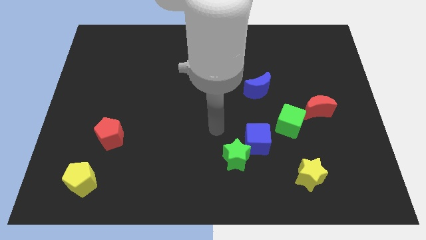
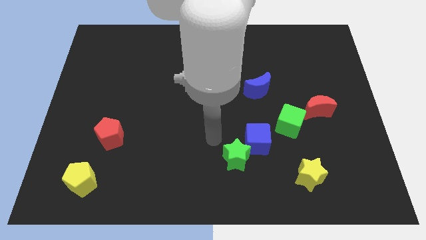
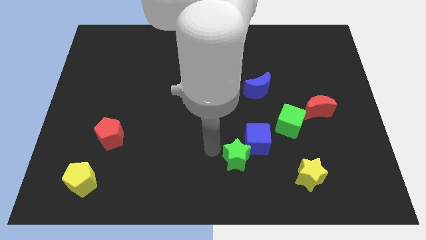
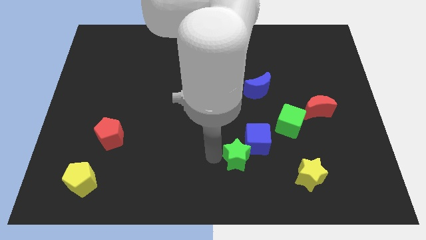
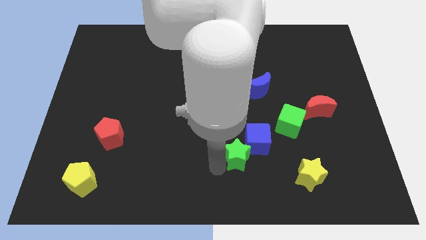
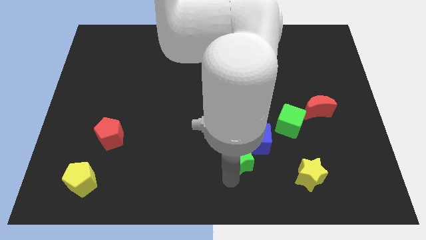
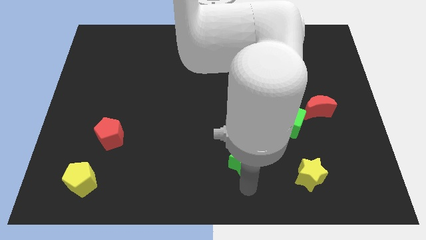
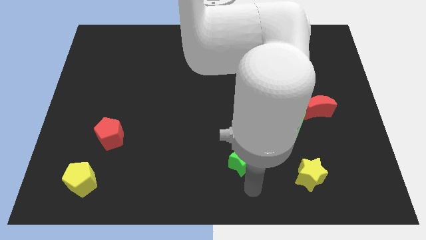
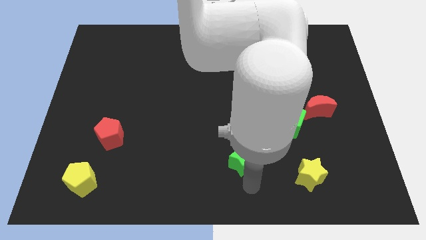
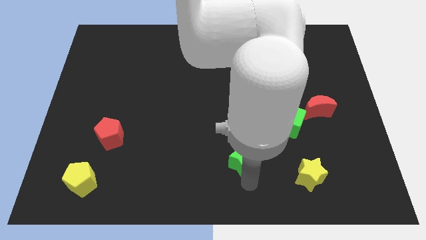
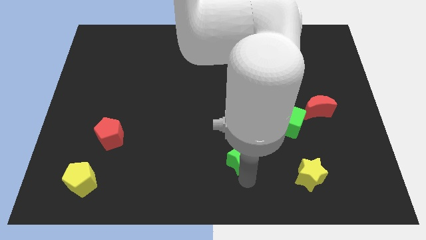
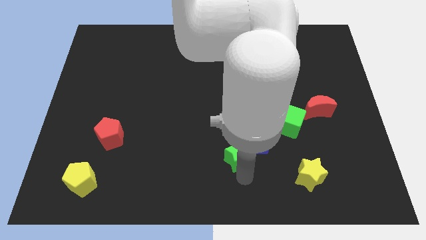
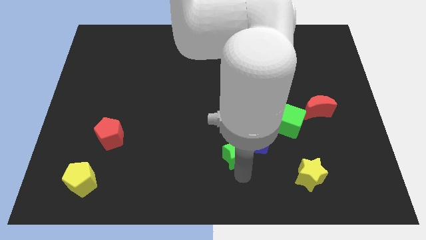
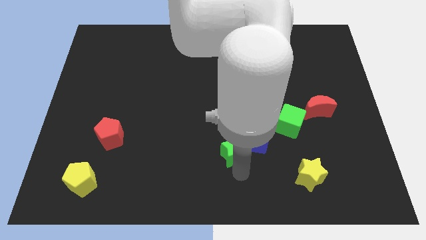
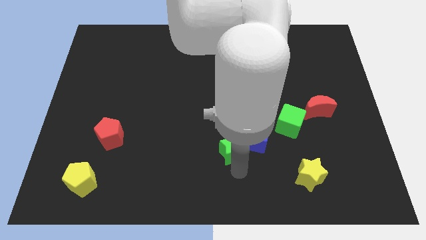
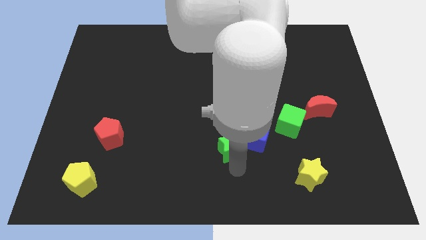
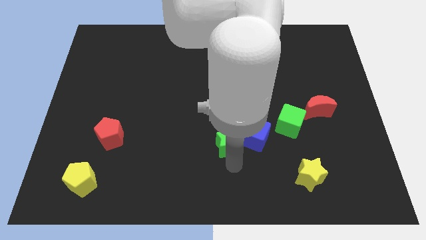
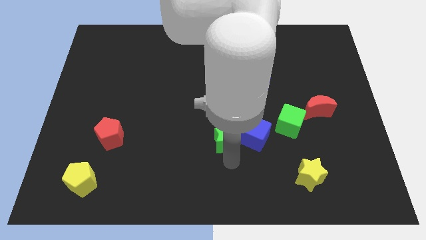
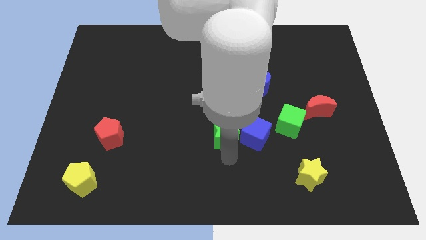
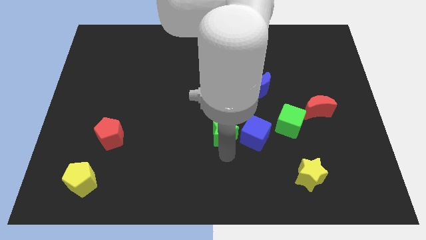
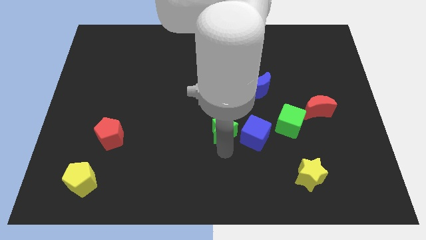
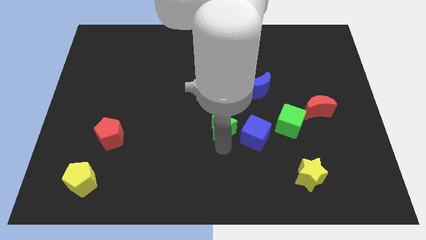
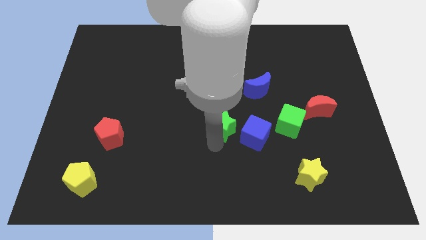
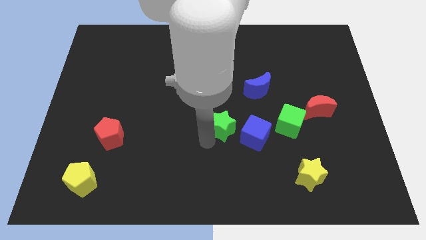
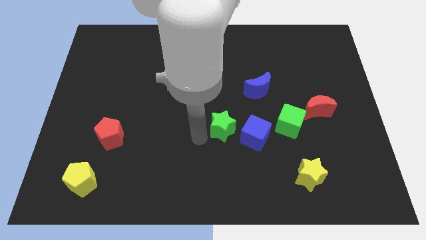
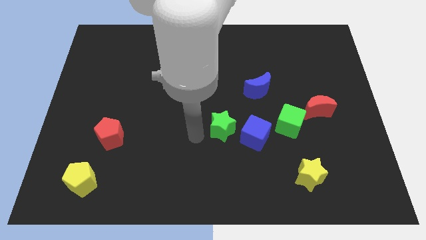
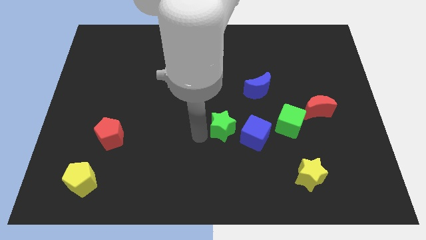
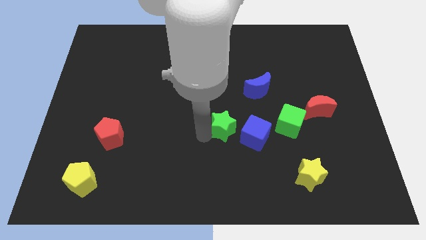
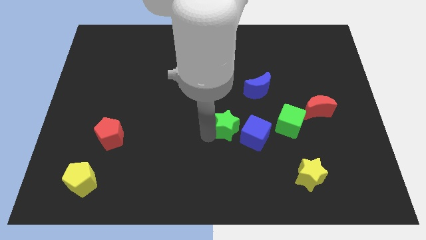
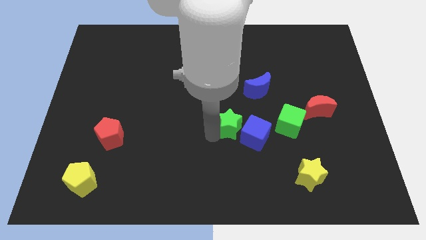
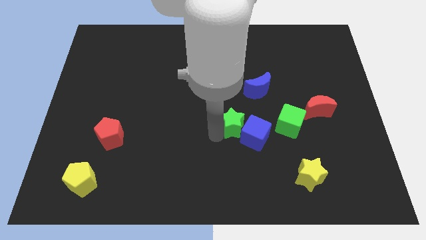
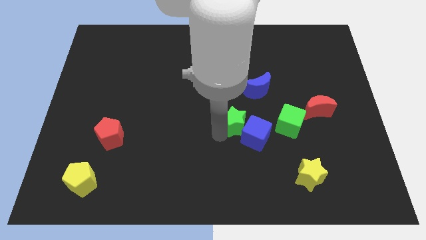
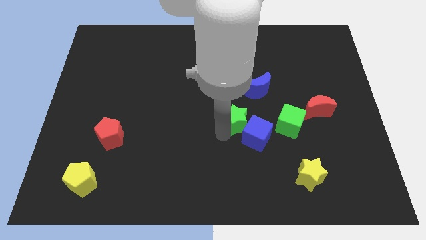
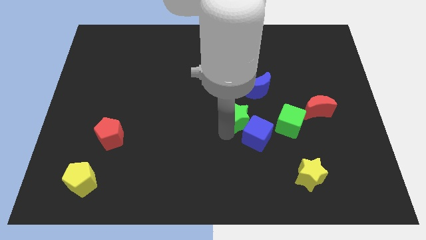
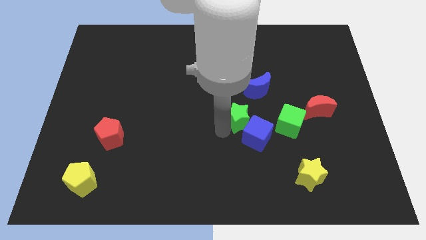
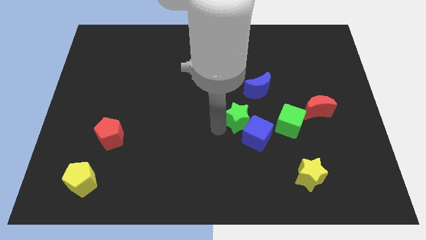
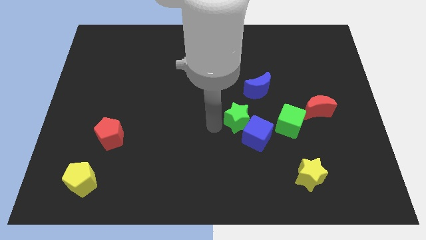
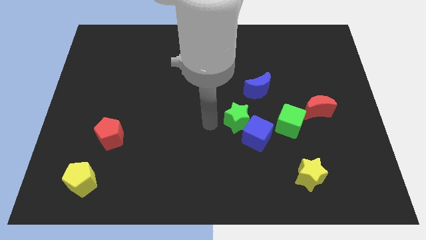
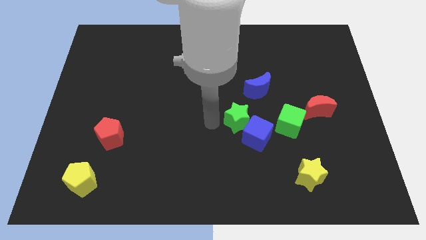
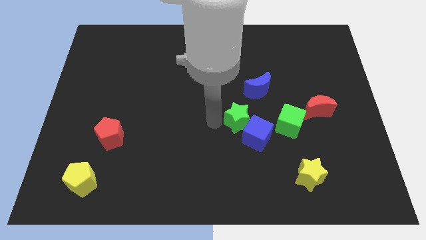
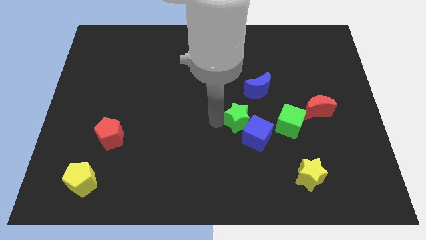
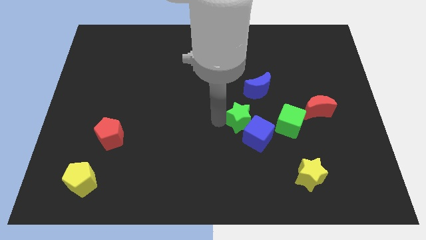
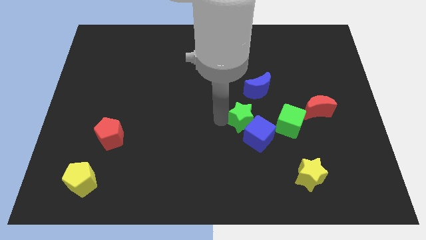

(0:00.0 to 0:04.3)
slide the green star diagonally up and right a little

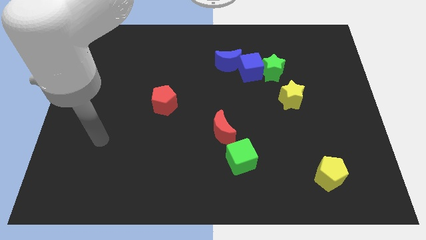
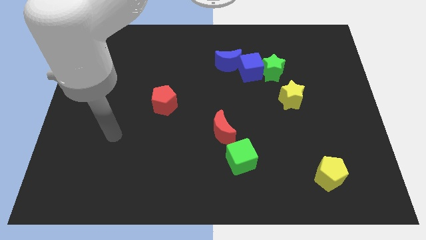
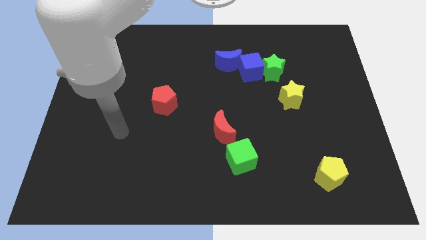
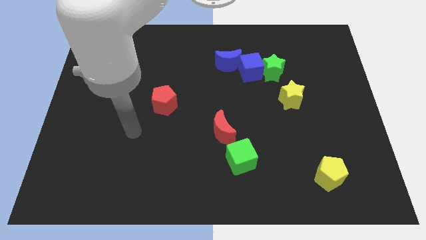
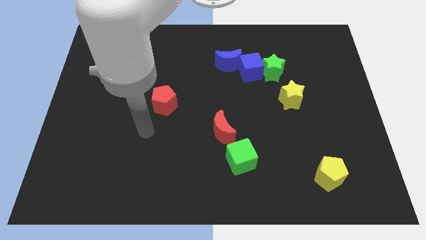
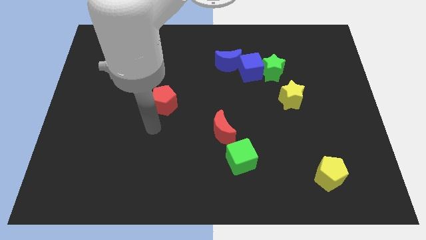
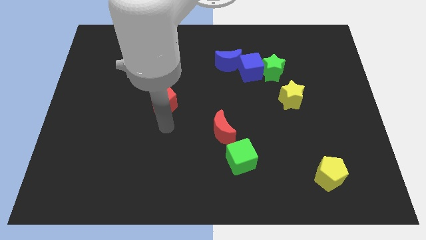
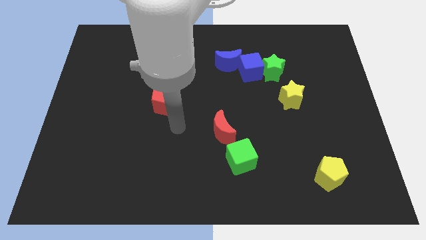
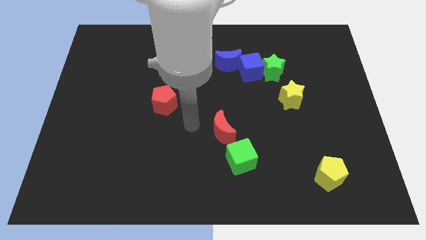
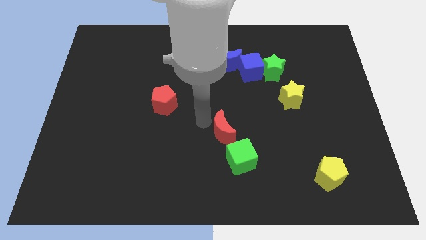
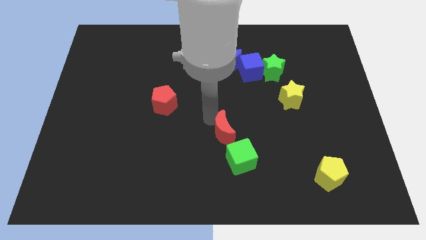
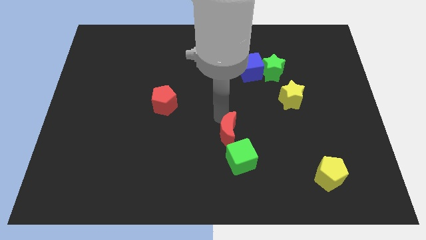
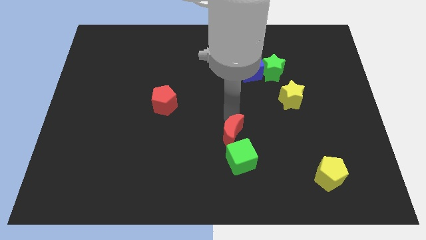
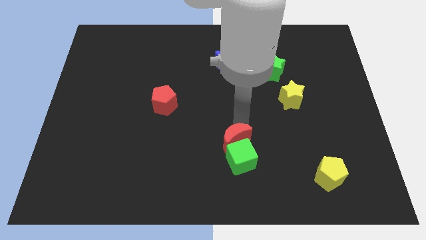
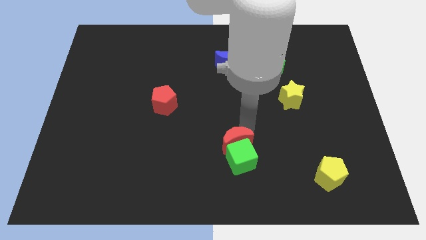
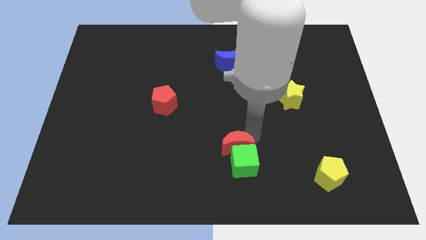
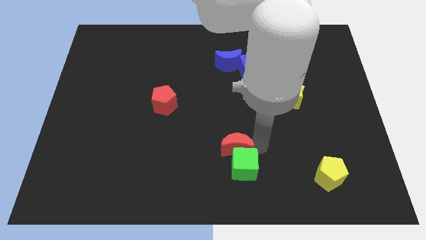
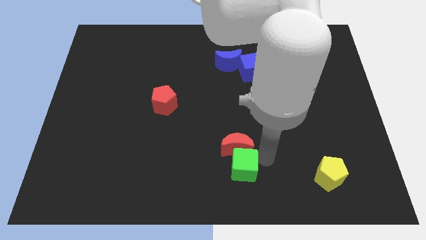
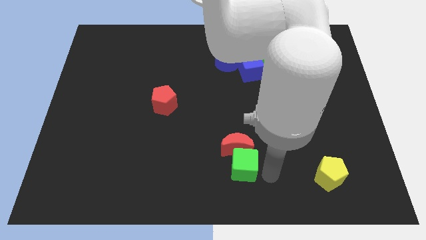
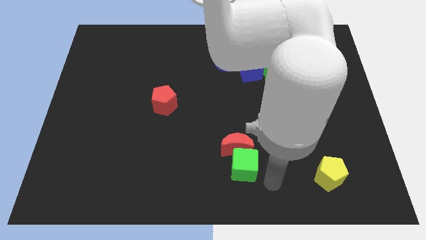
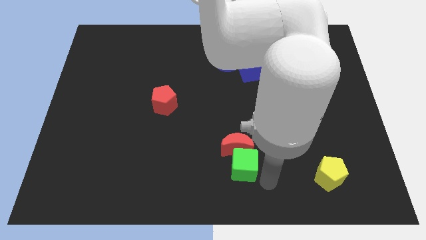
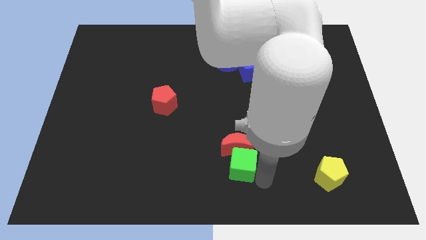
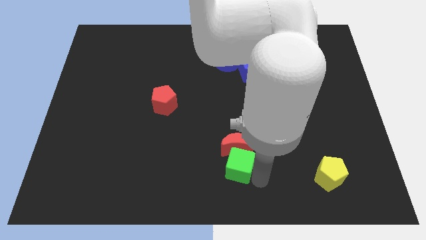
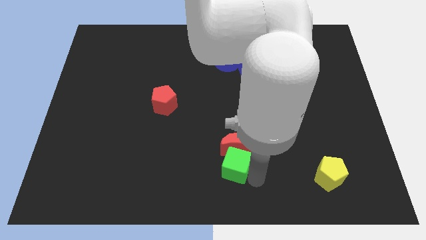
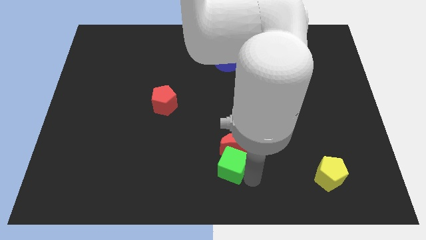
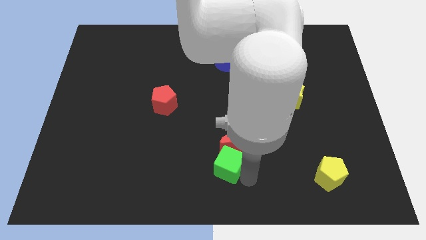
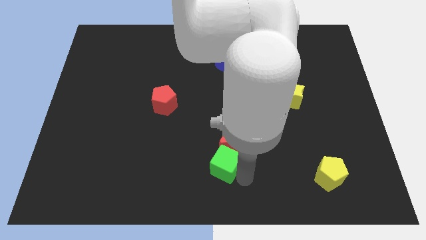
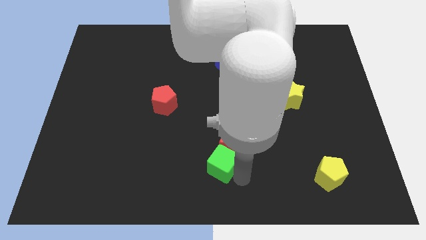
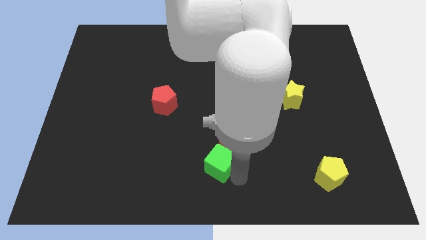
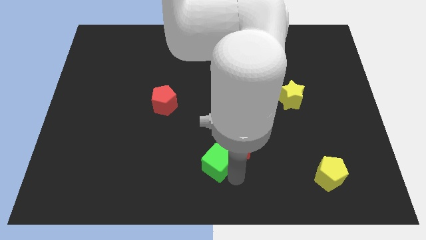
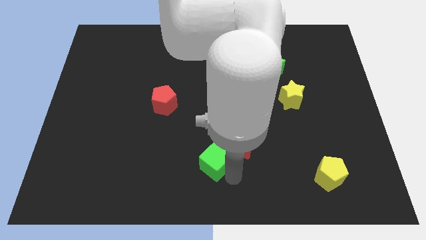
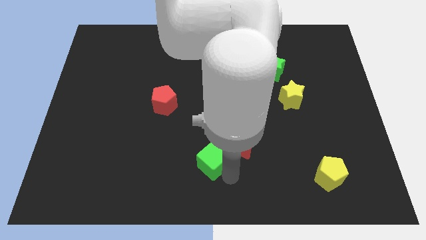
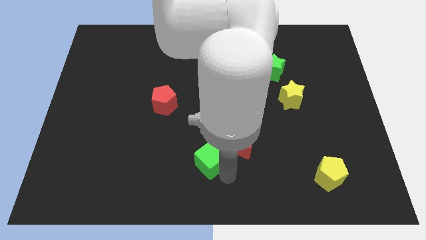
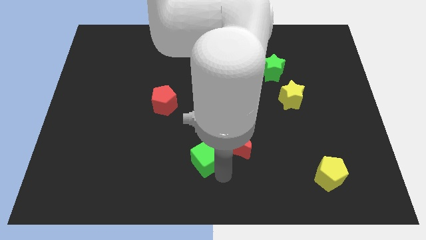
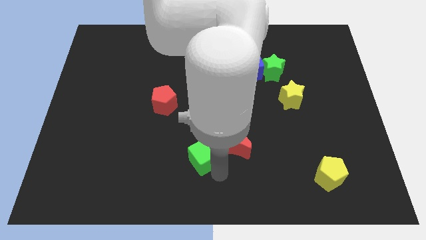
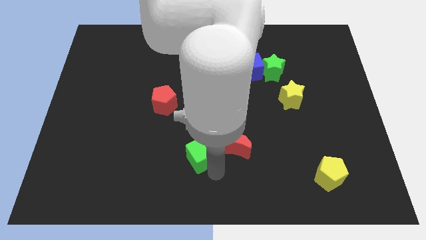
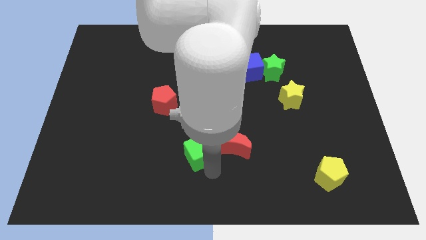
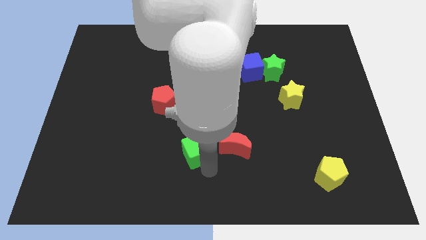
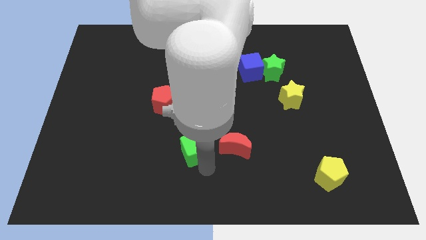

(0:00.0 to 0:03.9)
move the green cube slightly diagonally up and left

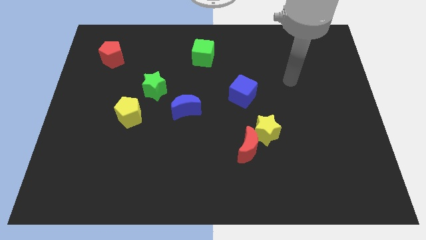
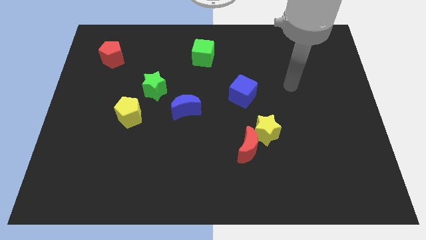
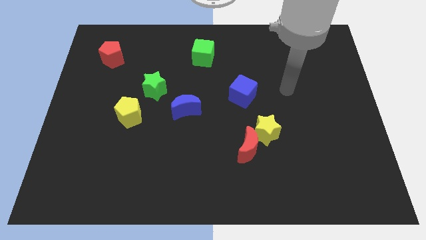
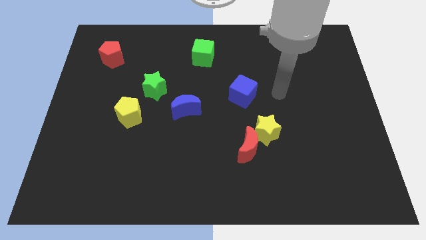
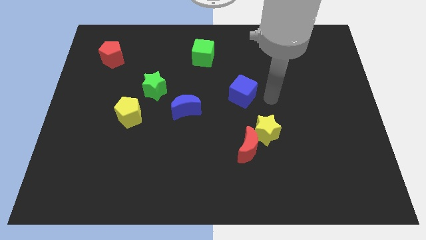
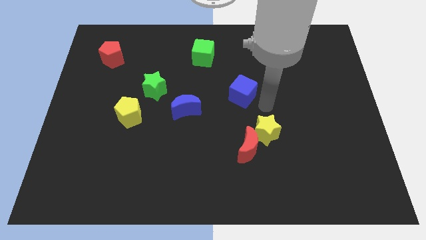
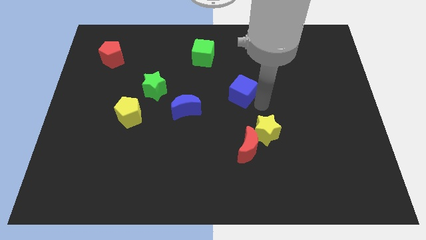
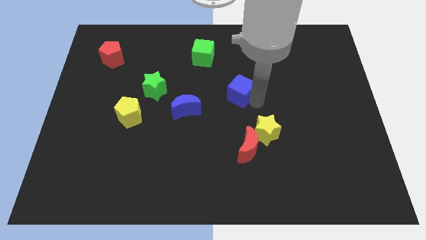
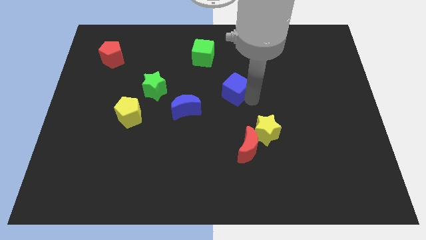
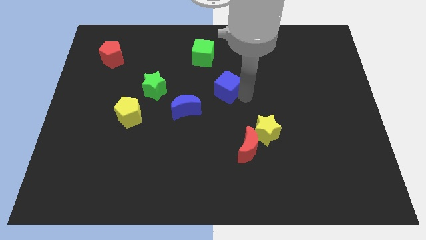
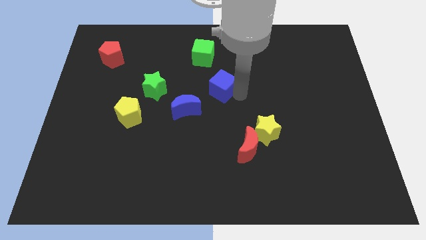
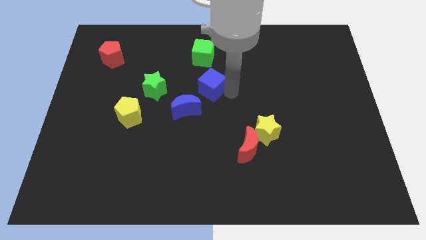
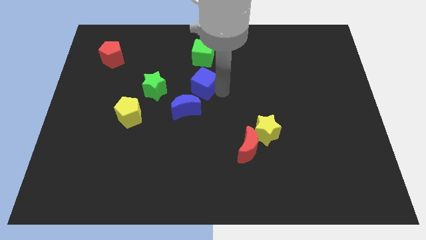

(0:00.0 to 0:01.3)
slightly push the blue cube upwards and then left
